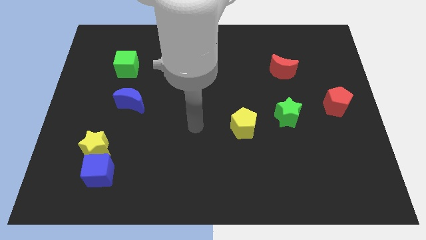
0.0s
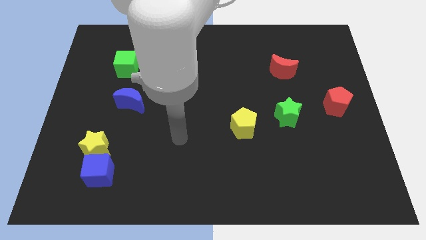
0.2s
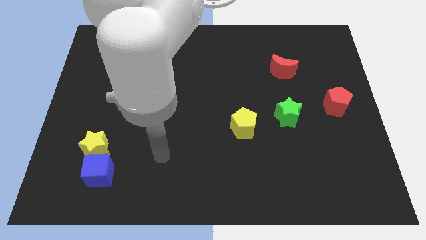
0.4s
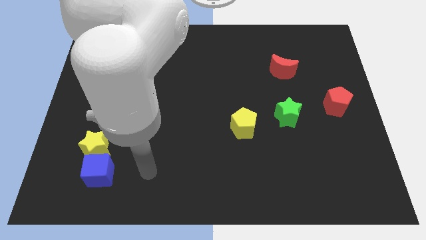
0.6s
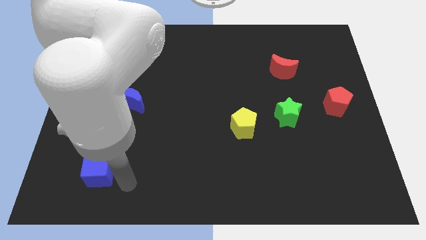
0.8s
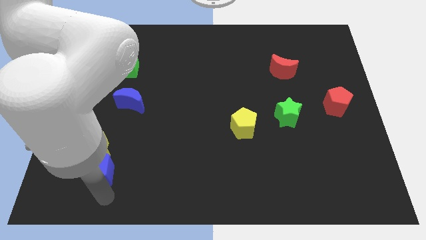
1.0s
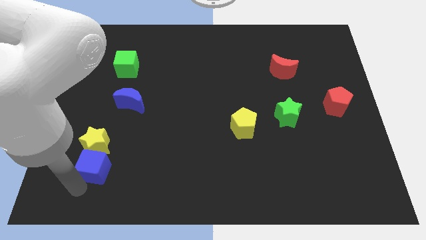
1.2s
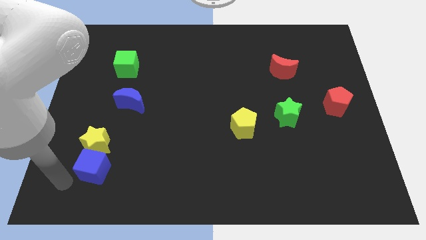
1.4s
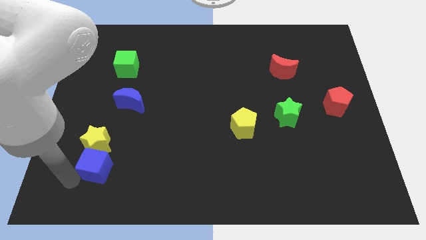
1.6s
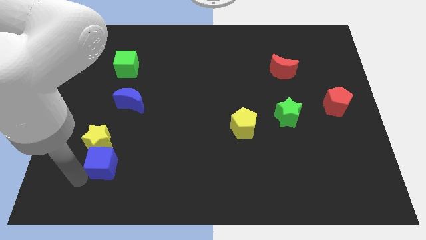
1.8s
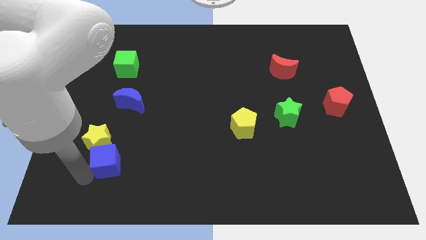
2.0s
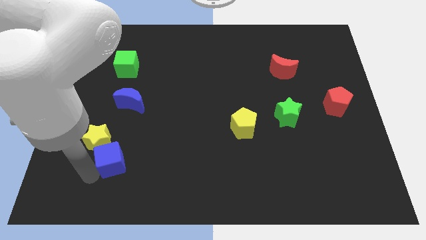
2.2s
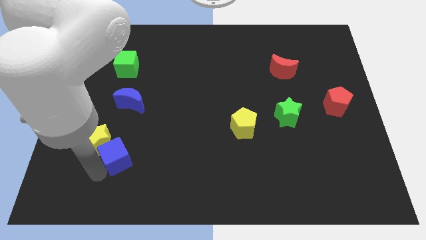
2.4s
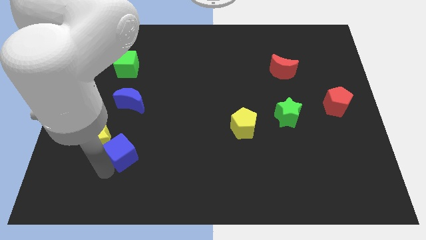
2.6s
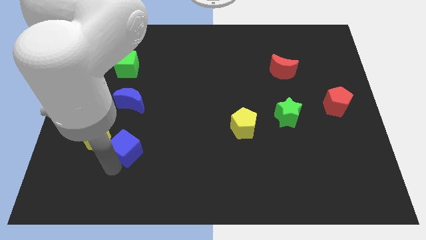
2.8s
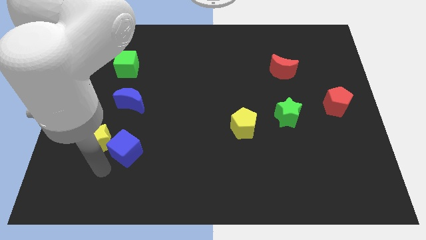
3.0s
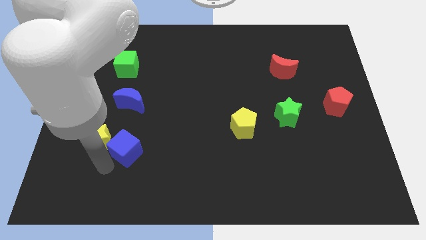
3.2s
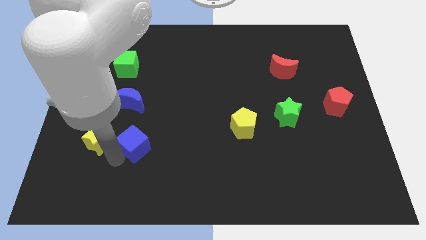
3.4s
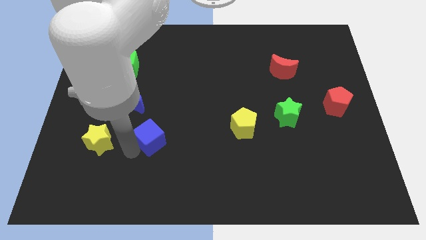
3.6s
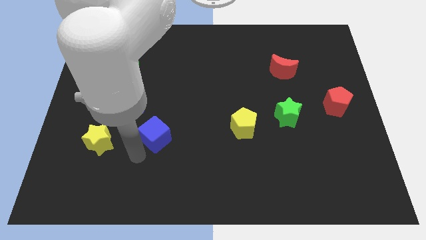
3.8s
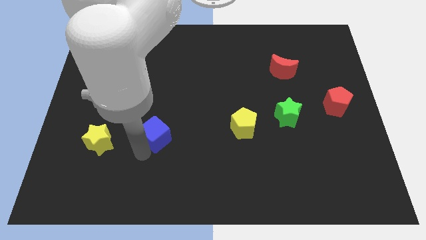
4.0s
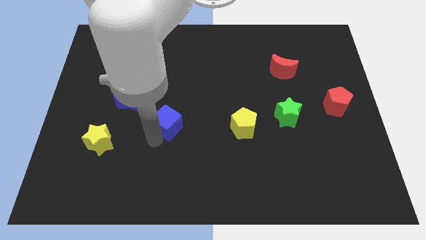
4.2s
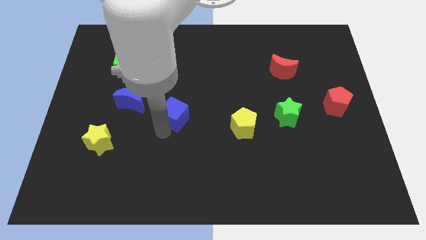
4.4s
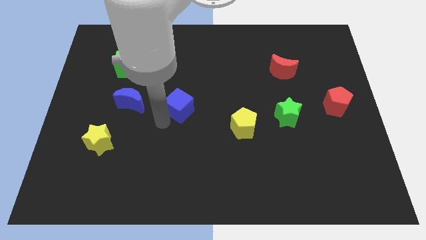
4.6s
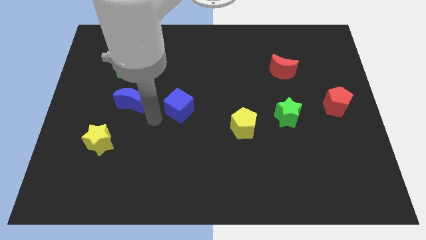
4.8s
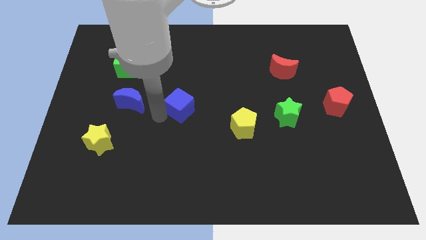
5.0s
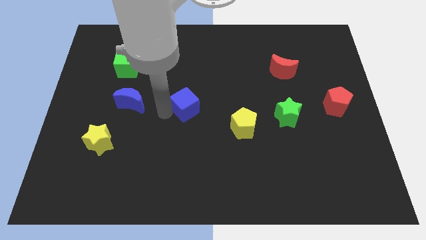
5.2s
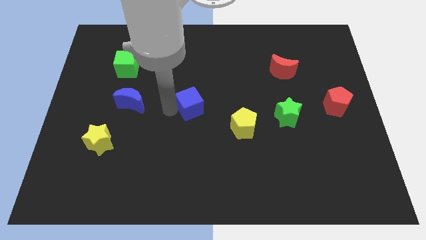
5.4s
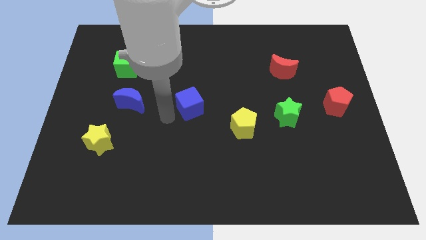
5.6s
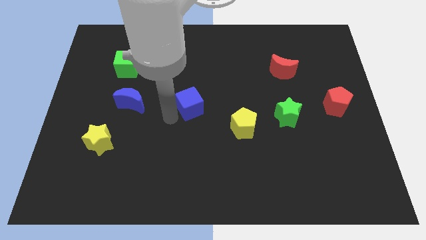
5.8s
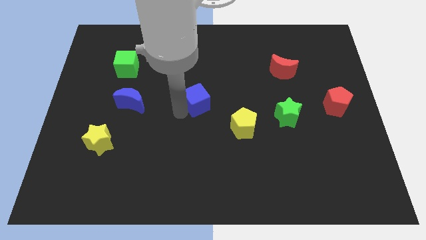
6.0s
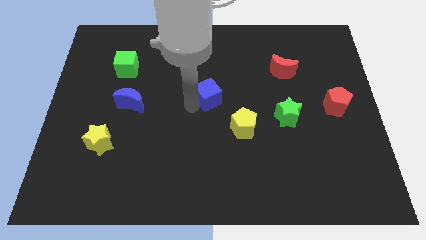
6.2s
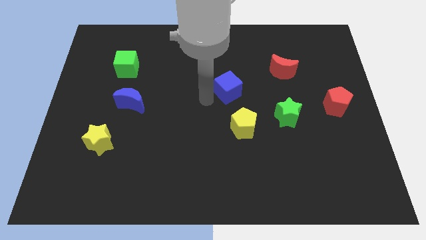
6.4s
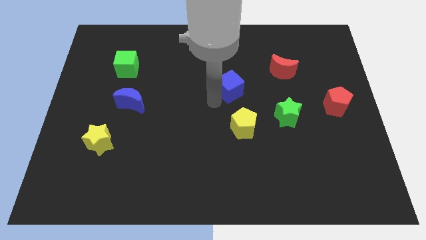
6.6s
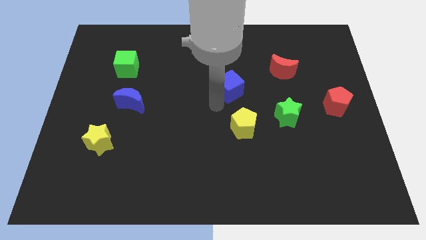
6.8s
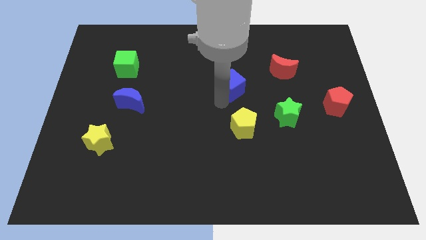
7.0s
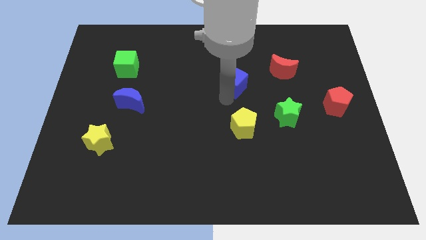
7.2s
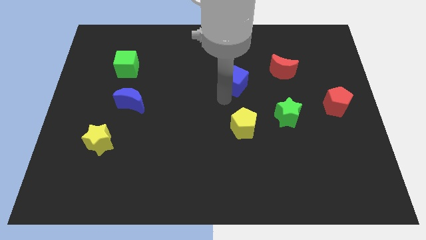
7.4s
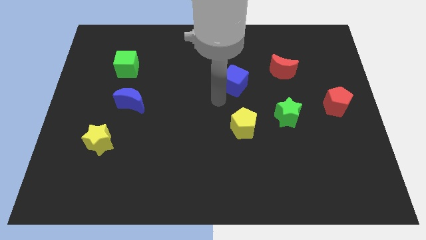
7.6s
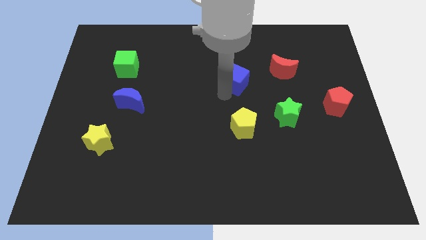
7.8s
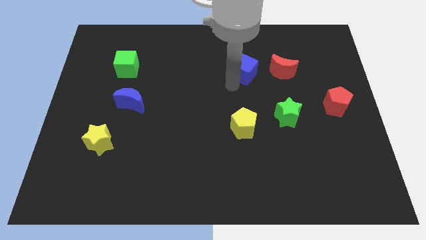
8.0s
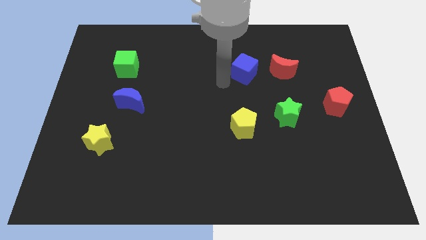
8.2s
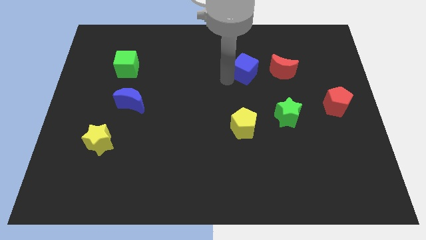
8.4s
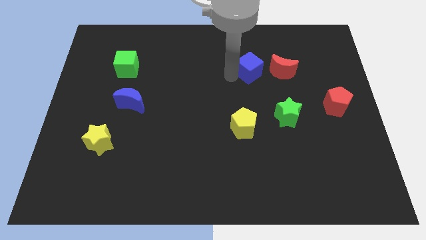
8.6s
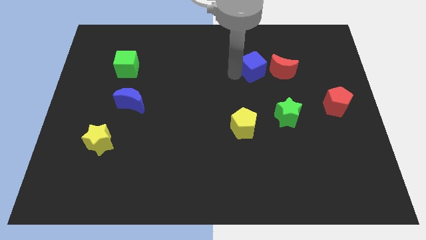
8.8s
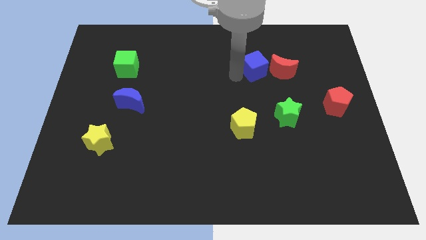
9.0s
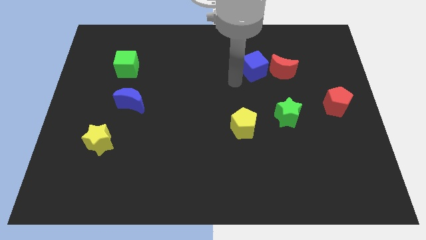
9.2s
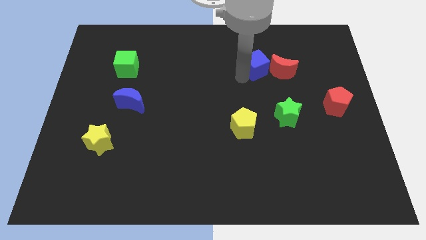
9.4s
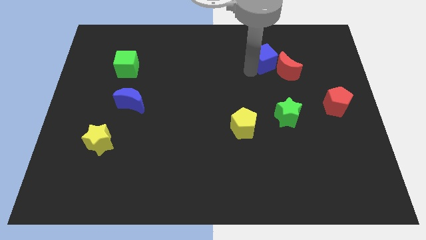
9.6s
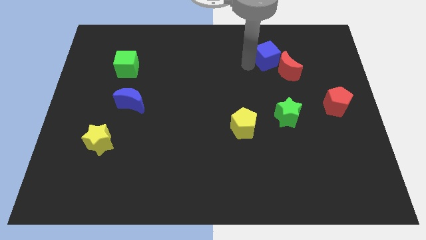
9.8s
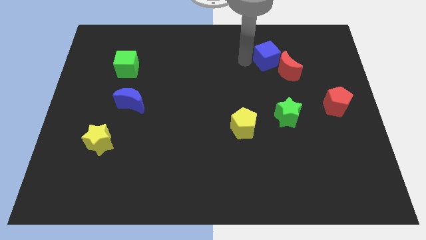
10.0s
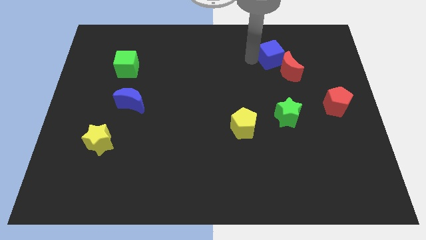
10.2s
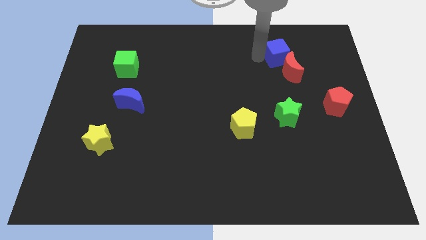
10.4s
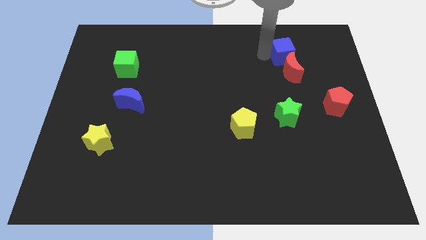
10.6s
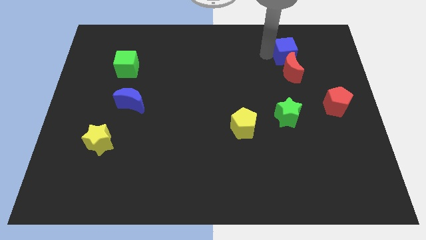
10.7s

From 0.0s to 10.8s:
slide the blue cube to the top right of the red moon

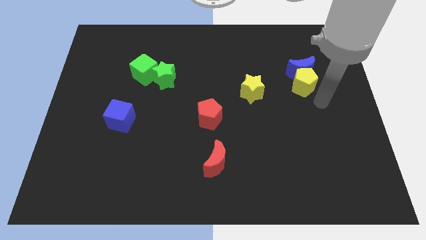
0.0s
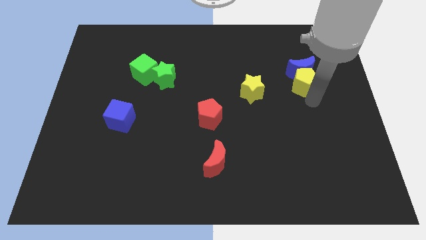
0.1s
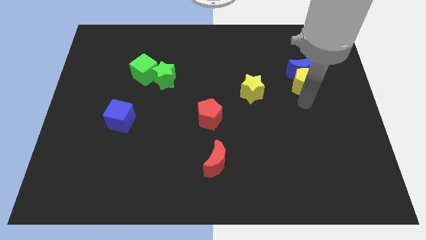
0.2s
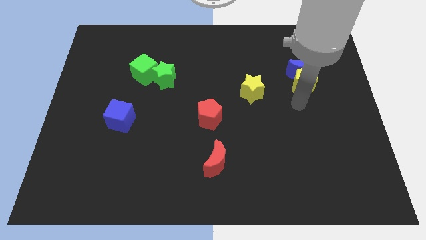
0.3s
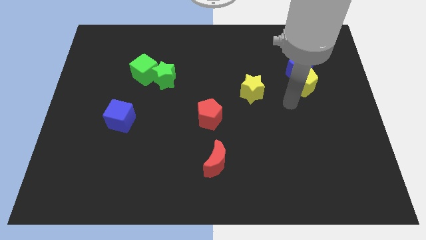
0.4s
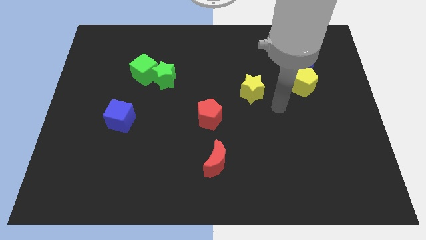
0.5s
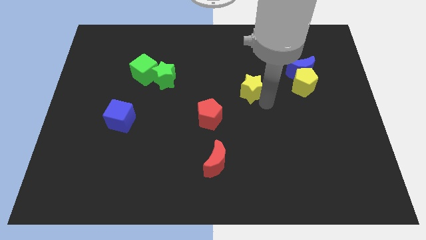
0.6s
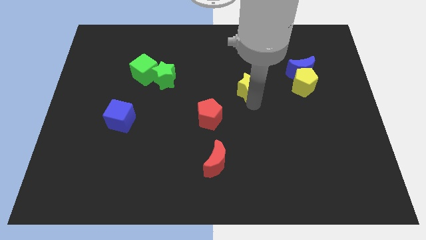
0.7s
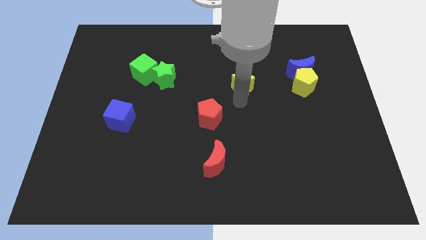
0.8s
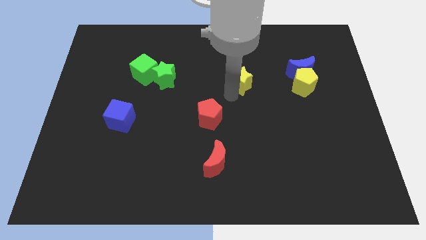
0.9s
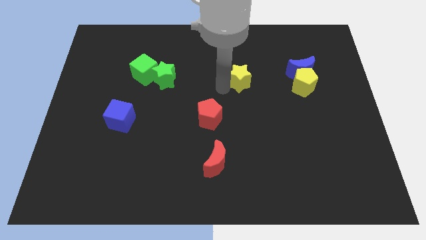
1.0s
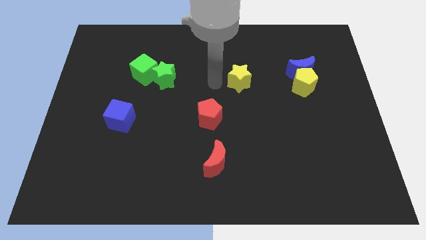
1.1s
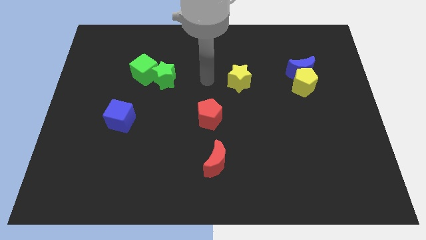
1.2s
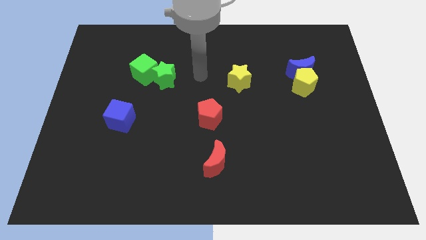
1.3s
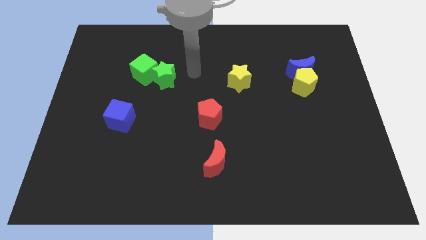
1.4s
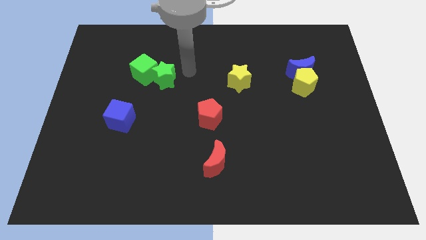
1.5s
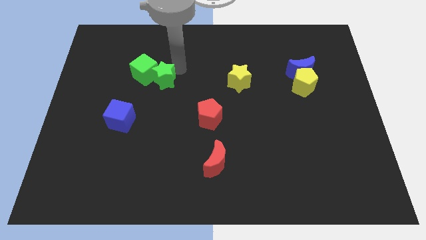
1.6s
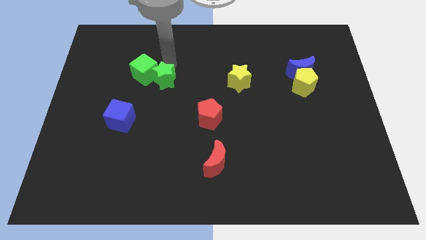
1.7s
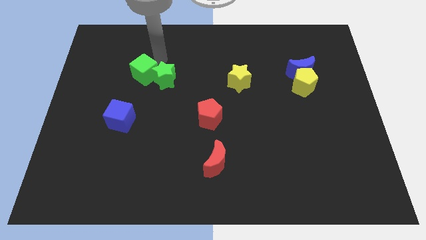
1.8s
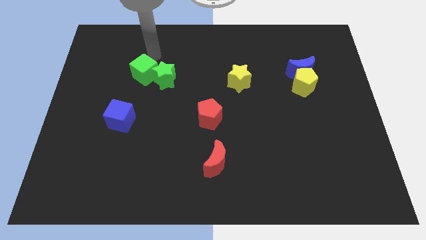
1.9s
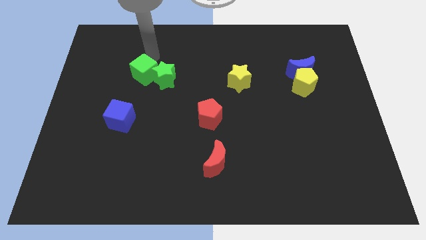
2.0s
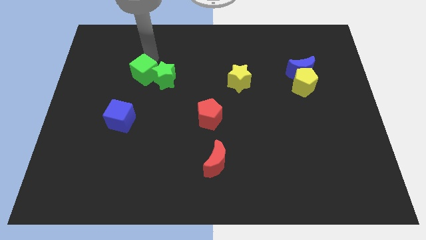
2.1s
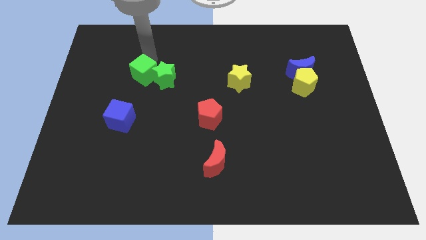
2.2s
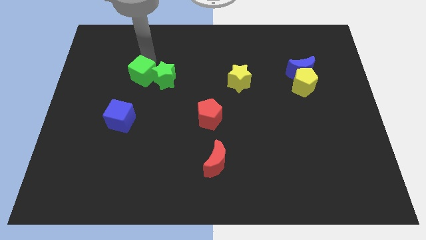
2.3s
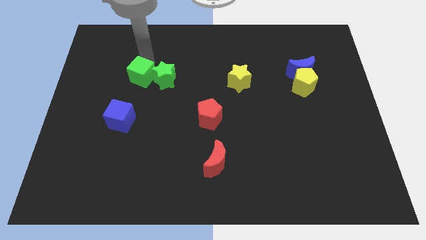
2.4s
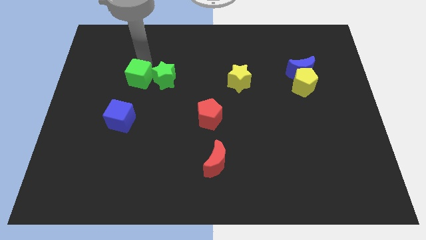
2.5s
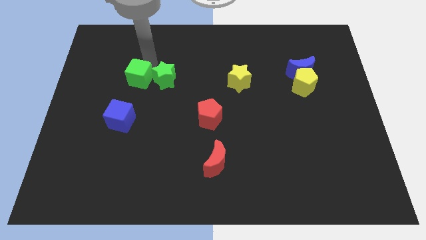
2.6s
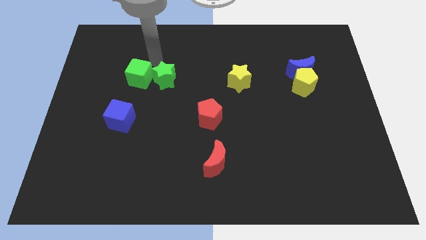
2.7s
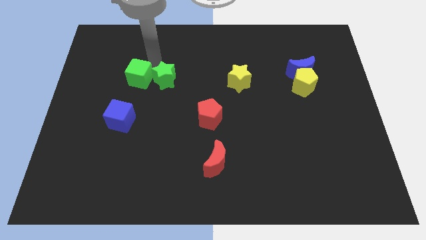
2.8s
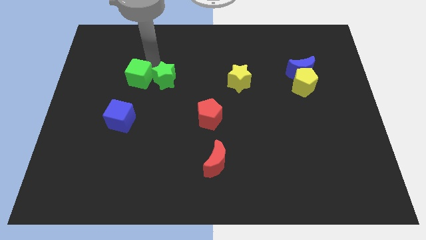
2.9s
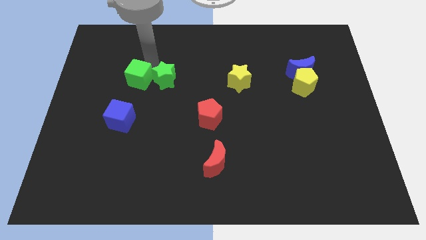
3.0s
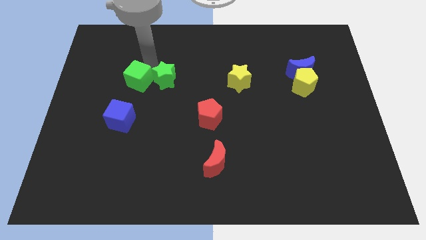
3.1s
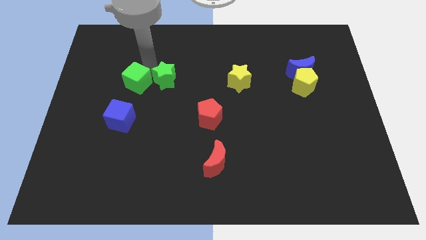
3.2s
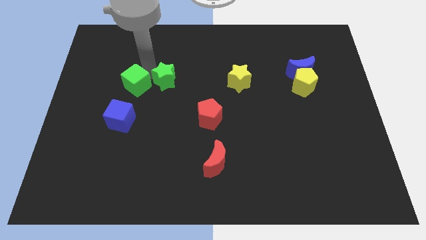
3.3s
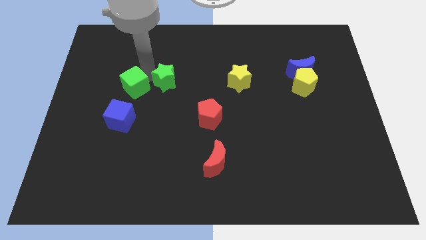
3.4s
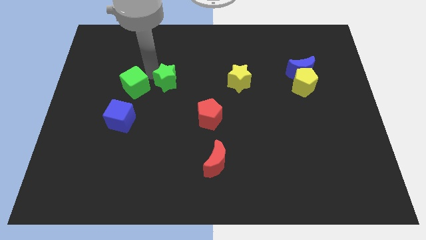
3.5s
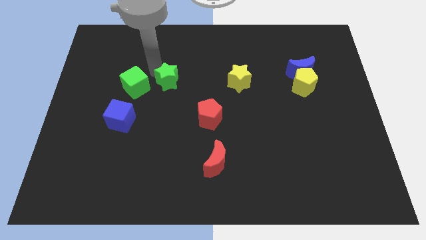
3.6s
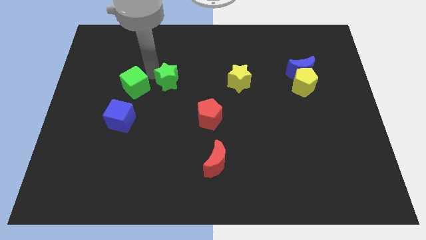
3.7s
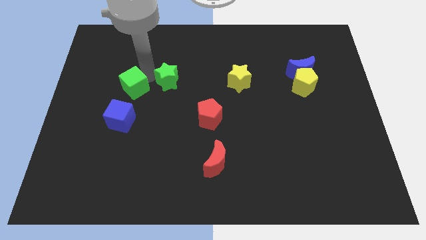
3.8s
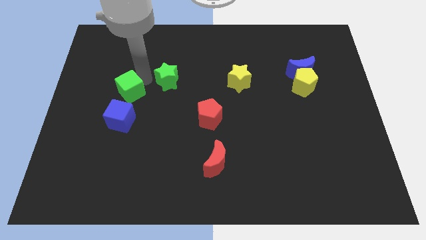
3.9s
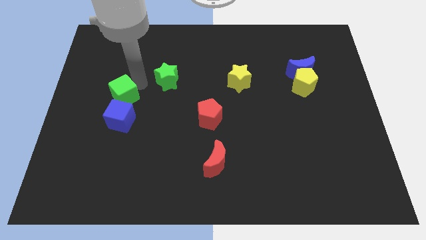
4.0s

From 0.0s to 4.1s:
slide the green cube to the top left of the blue cube
